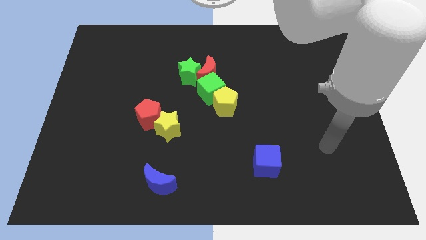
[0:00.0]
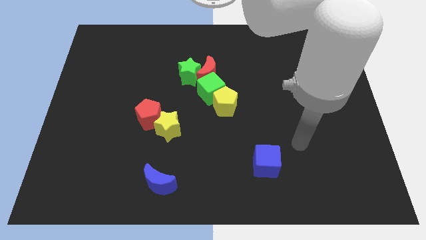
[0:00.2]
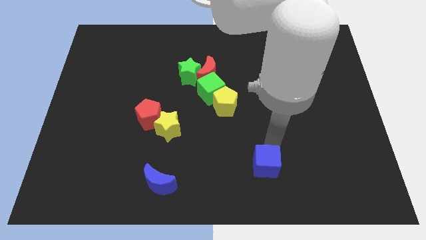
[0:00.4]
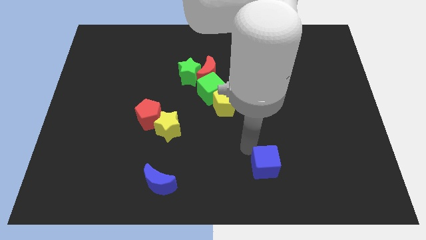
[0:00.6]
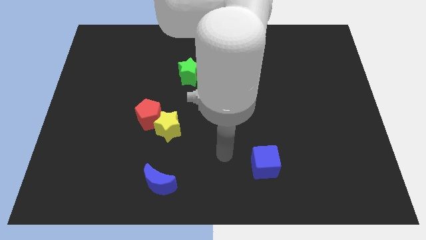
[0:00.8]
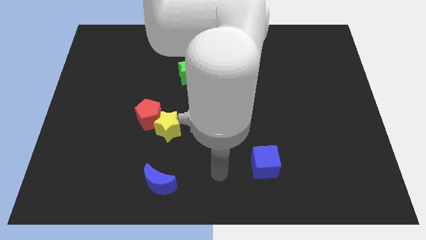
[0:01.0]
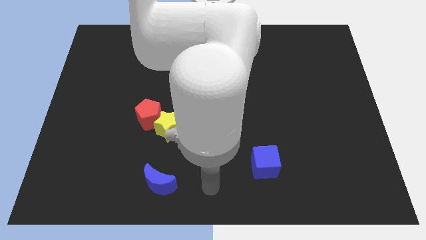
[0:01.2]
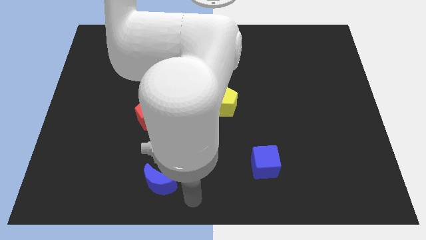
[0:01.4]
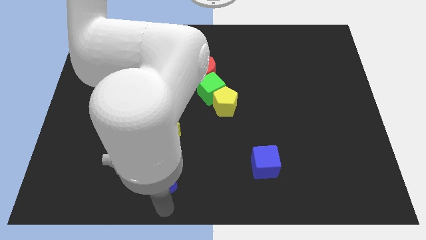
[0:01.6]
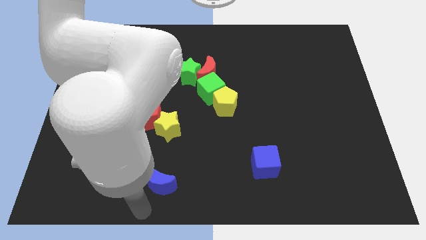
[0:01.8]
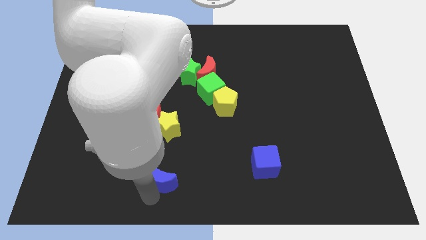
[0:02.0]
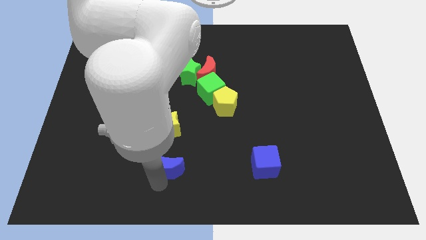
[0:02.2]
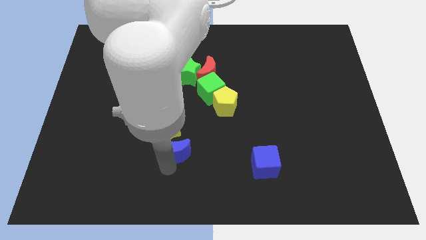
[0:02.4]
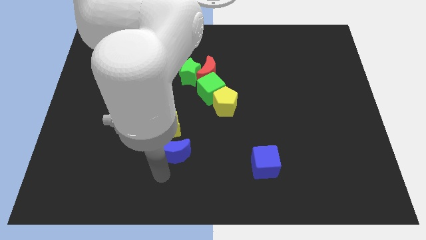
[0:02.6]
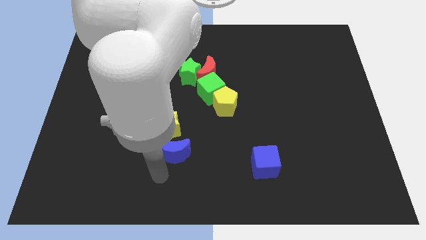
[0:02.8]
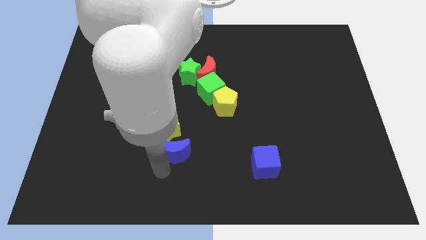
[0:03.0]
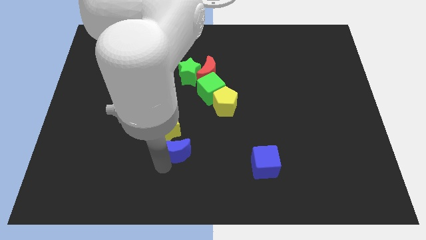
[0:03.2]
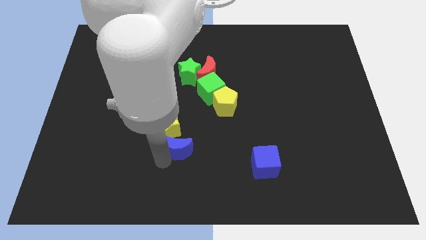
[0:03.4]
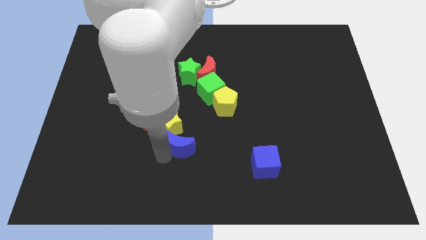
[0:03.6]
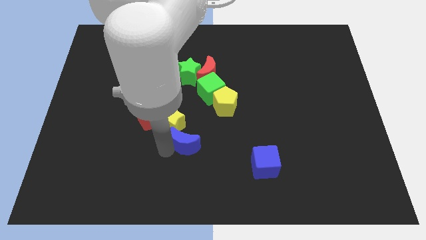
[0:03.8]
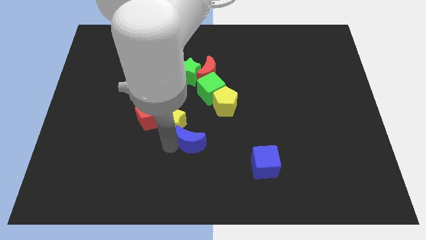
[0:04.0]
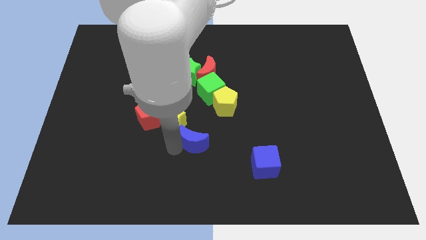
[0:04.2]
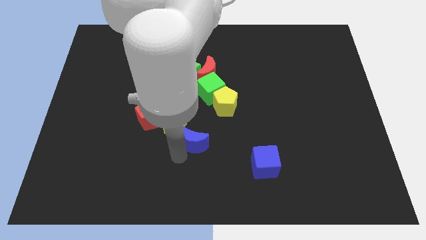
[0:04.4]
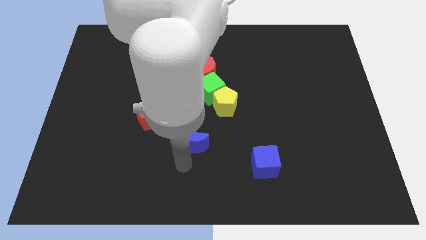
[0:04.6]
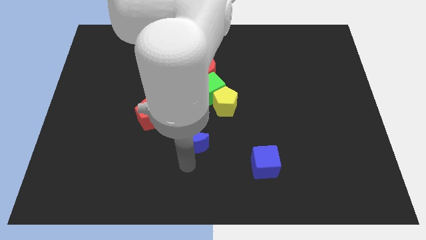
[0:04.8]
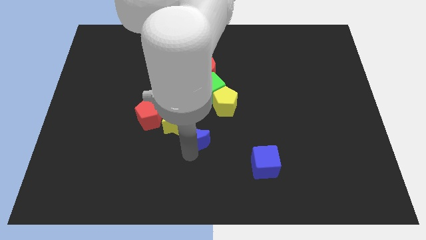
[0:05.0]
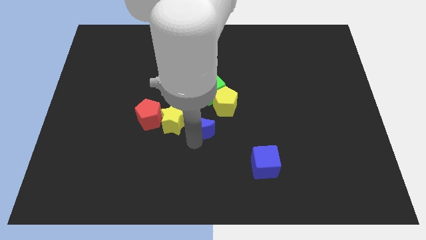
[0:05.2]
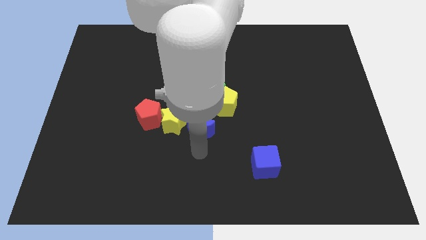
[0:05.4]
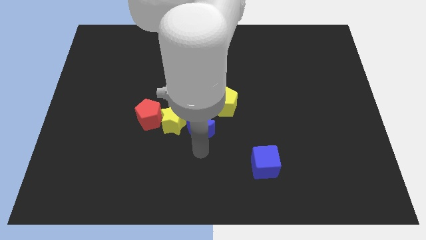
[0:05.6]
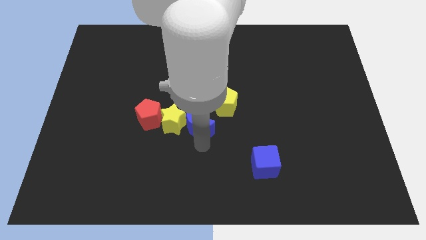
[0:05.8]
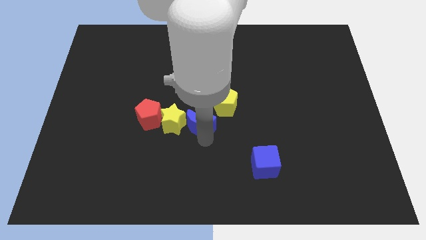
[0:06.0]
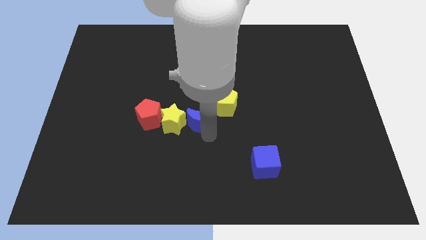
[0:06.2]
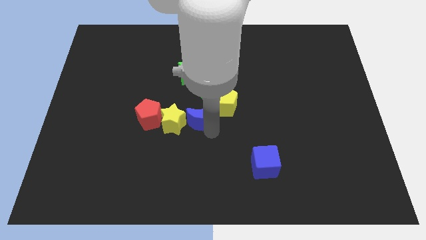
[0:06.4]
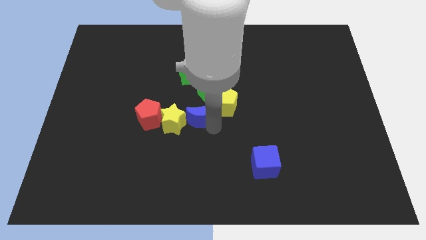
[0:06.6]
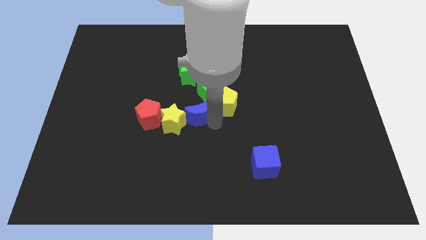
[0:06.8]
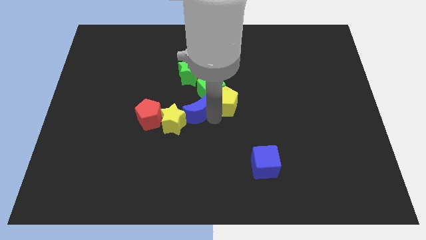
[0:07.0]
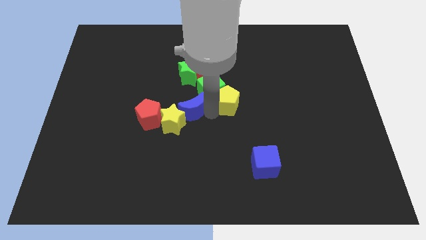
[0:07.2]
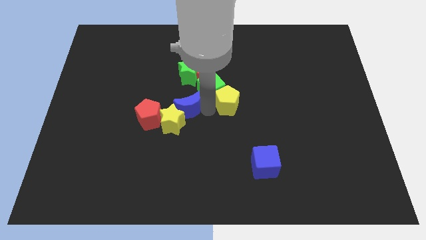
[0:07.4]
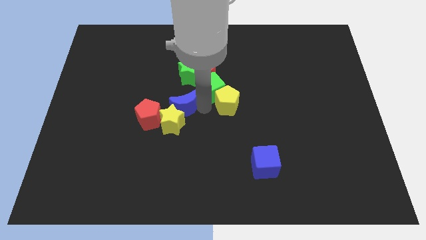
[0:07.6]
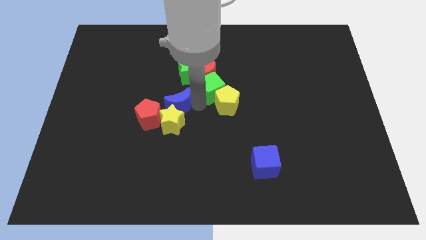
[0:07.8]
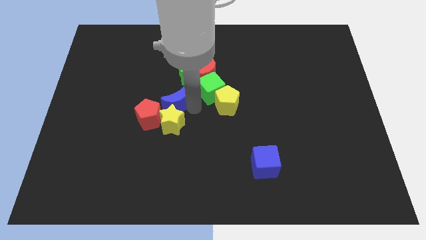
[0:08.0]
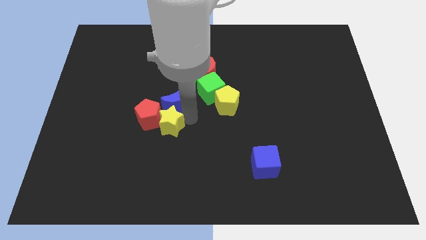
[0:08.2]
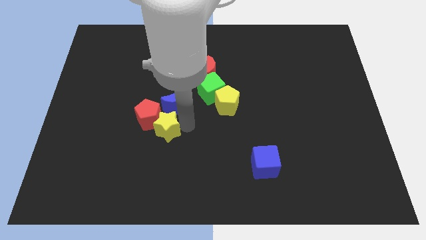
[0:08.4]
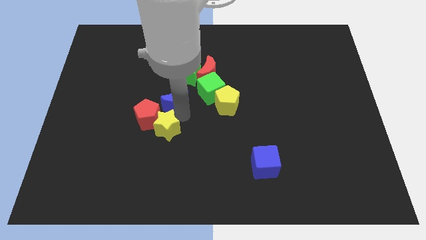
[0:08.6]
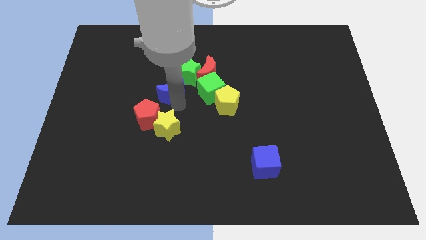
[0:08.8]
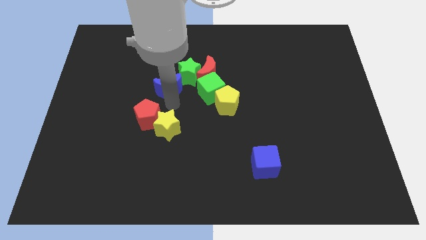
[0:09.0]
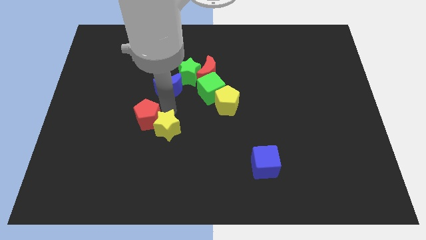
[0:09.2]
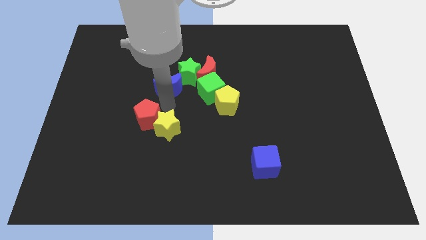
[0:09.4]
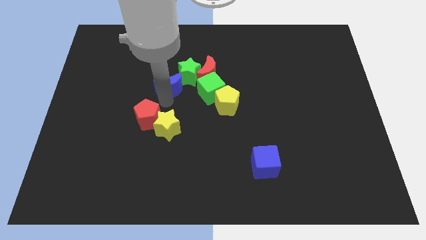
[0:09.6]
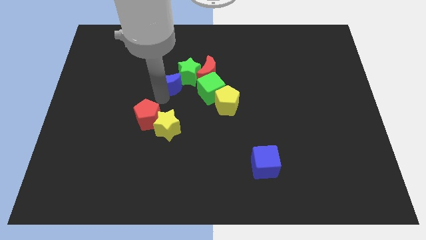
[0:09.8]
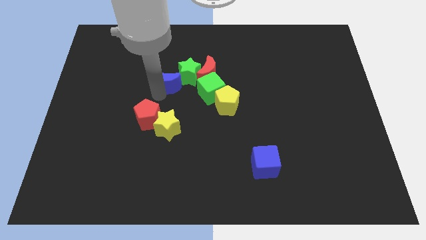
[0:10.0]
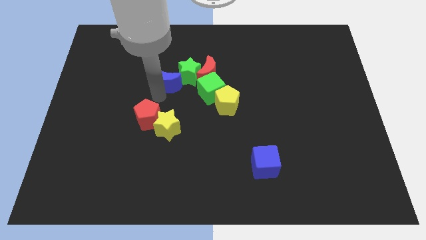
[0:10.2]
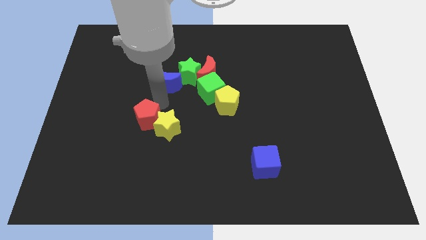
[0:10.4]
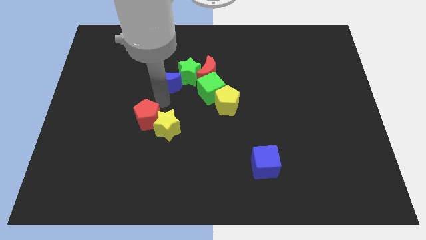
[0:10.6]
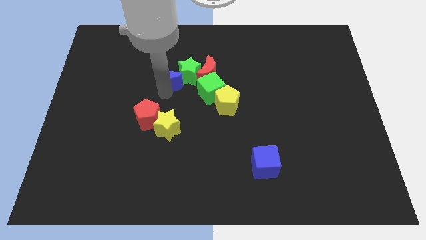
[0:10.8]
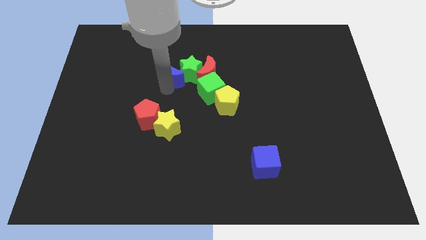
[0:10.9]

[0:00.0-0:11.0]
move the blue moon to the top left side of the green star

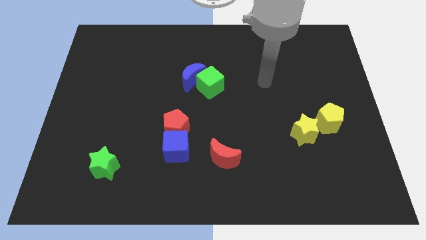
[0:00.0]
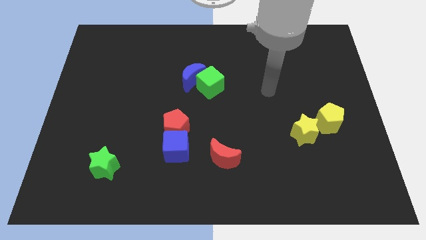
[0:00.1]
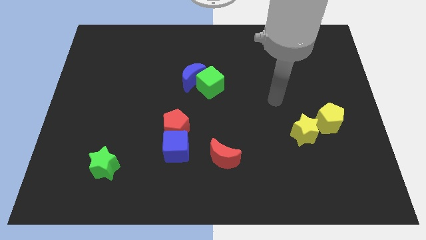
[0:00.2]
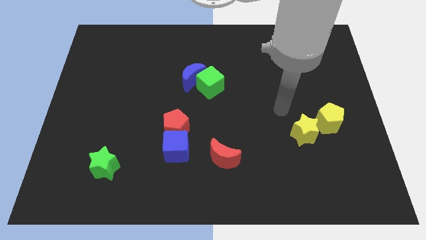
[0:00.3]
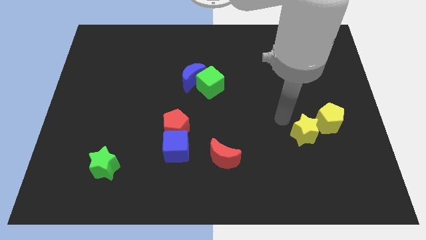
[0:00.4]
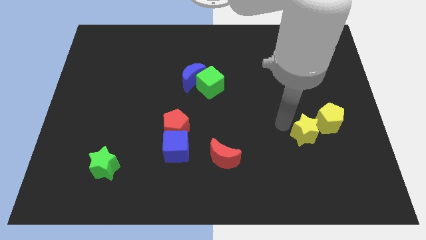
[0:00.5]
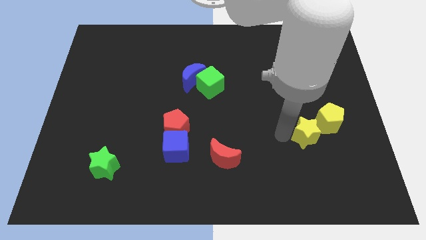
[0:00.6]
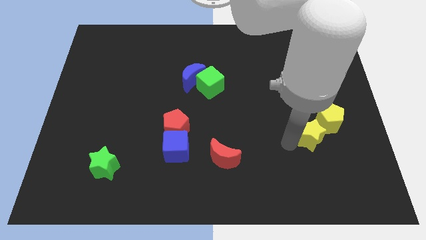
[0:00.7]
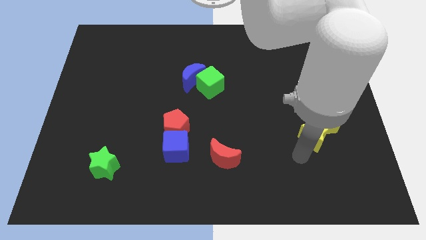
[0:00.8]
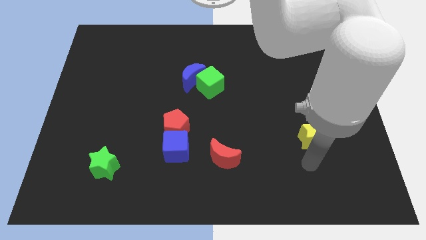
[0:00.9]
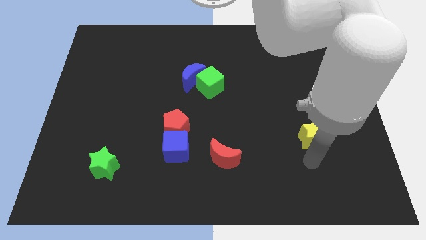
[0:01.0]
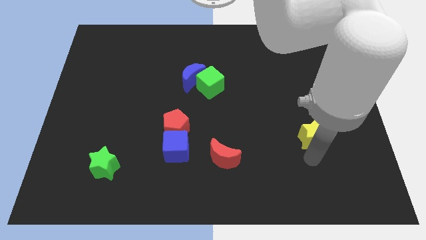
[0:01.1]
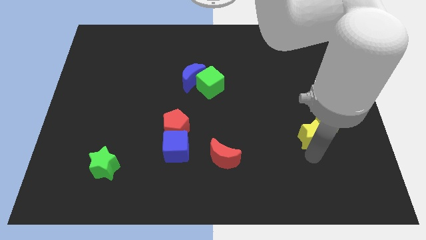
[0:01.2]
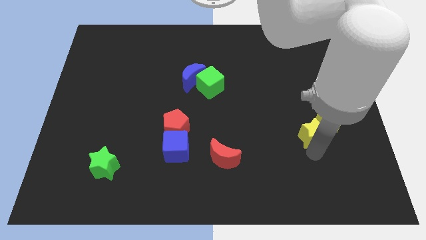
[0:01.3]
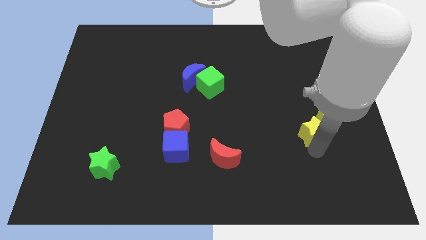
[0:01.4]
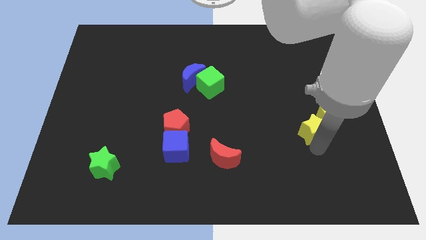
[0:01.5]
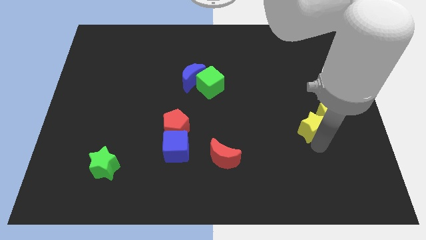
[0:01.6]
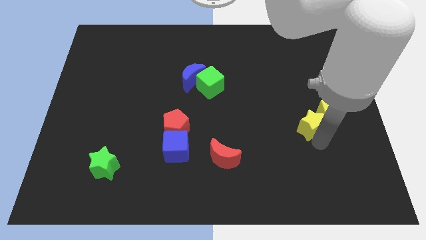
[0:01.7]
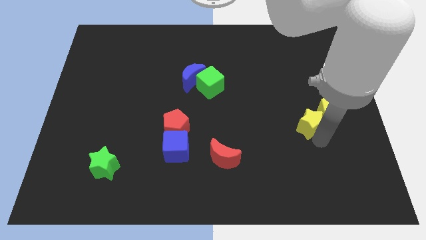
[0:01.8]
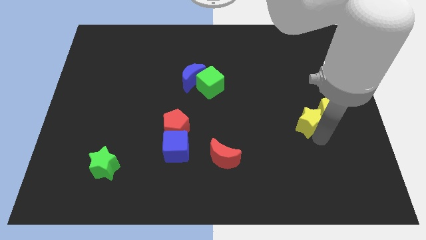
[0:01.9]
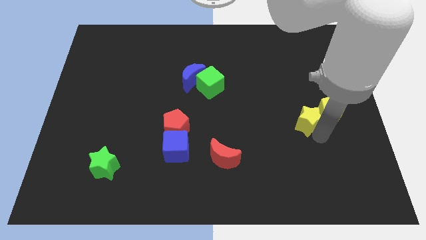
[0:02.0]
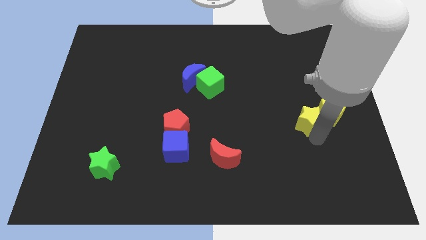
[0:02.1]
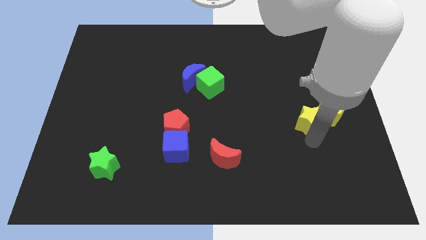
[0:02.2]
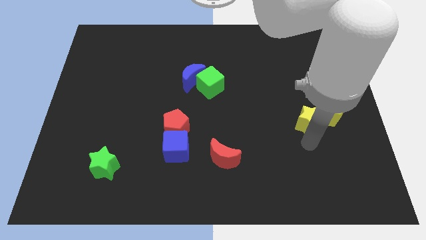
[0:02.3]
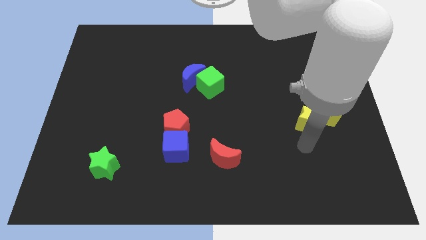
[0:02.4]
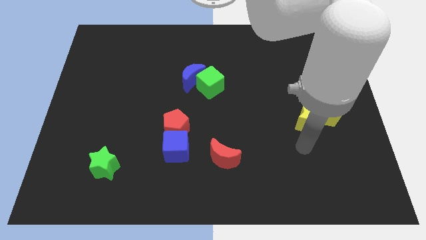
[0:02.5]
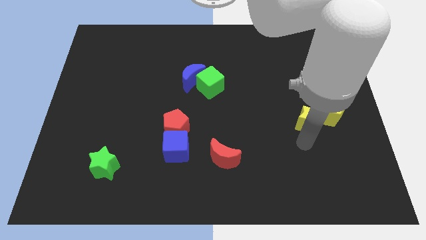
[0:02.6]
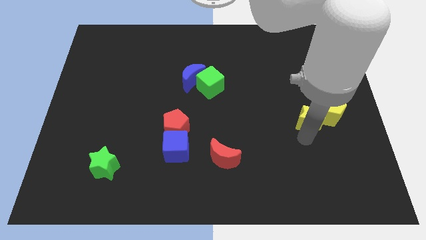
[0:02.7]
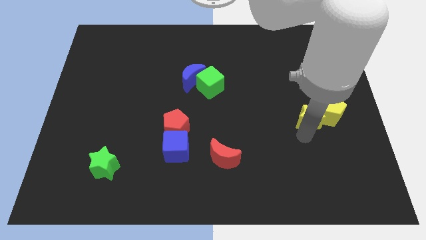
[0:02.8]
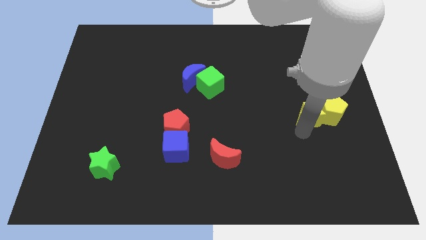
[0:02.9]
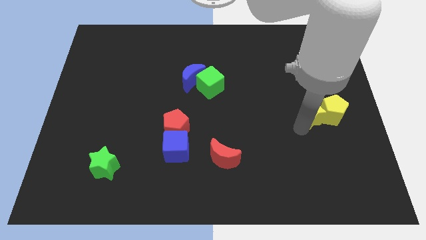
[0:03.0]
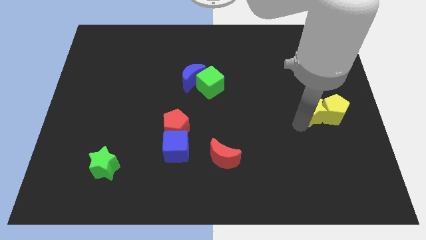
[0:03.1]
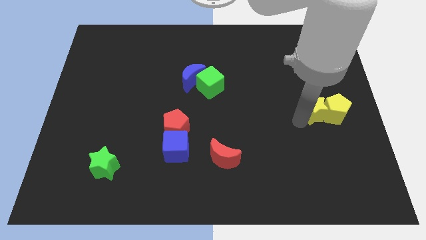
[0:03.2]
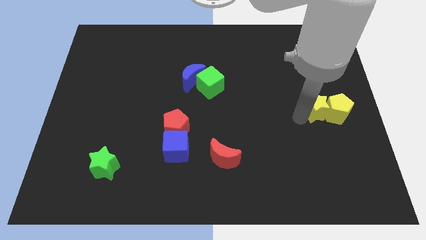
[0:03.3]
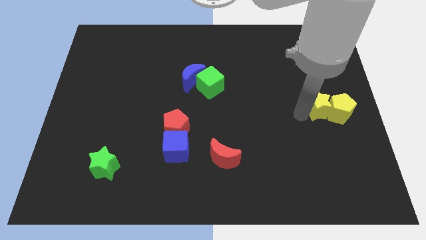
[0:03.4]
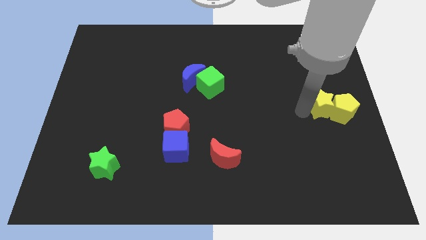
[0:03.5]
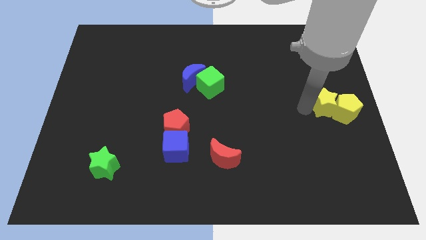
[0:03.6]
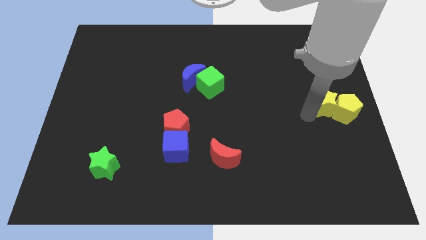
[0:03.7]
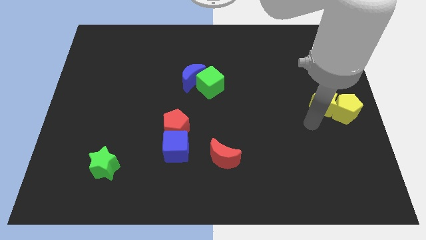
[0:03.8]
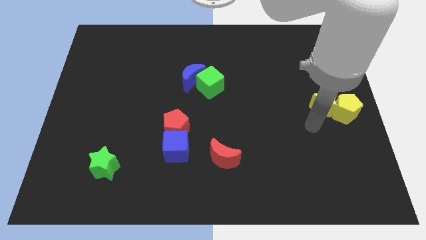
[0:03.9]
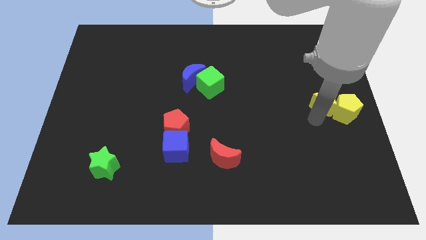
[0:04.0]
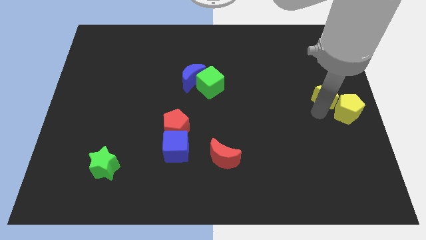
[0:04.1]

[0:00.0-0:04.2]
move the yellow star to the top of the yellow pentagon
